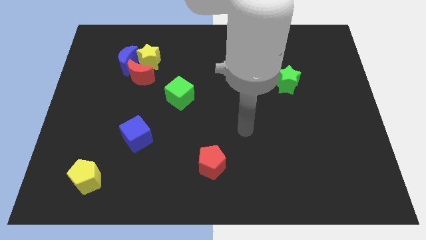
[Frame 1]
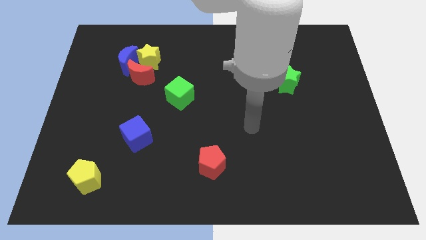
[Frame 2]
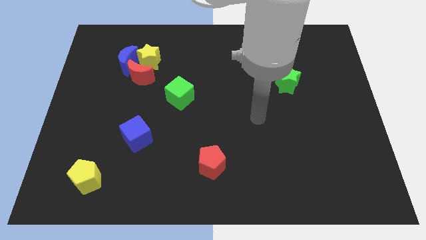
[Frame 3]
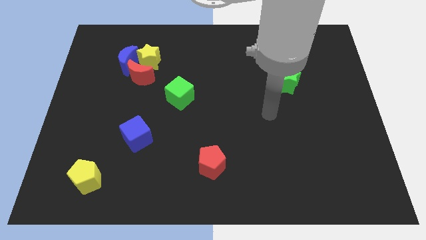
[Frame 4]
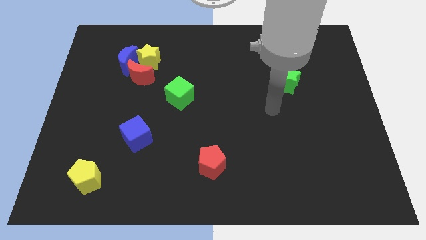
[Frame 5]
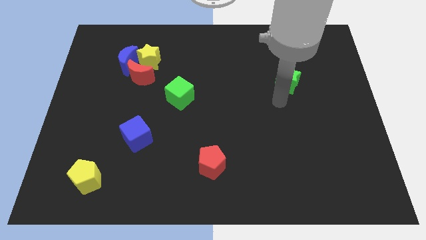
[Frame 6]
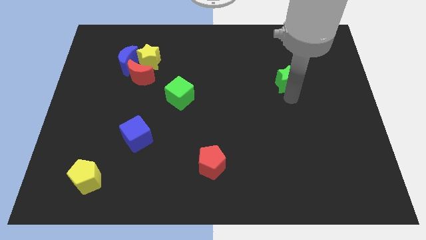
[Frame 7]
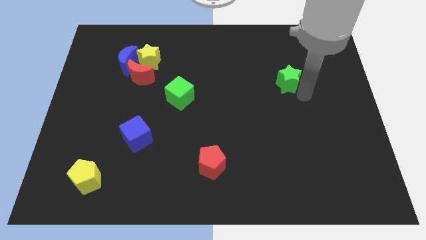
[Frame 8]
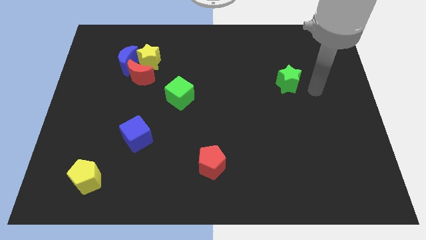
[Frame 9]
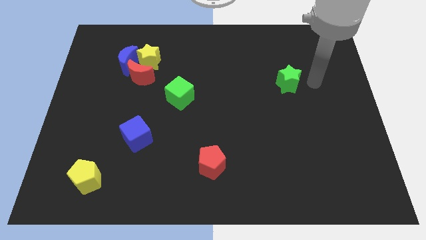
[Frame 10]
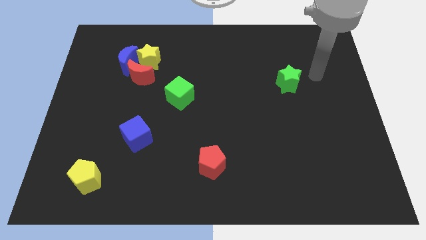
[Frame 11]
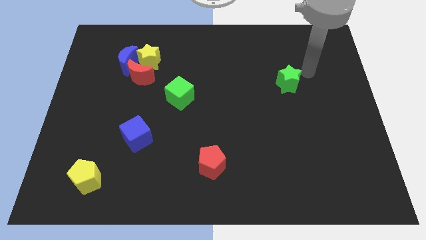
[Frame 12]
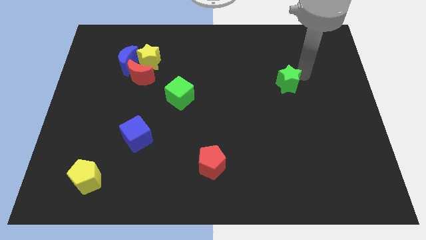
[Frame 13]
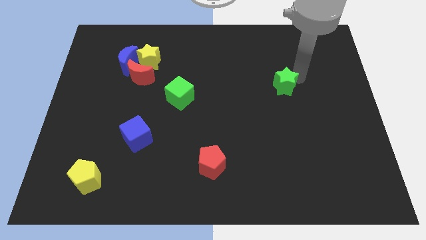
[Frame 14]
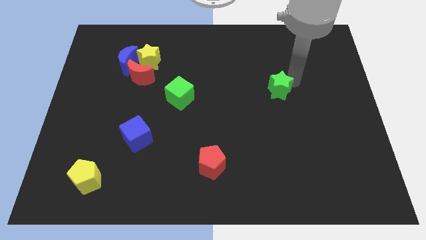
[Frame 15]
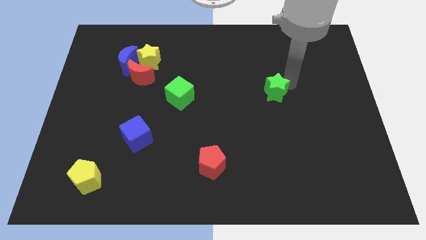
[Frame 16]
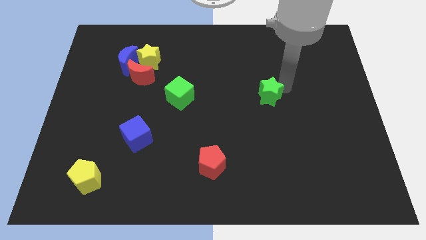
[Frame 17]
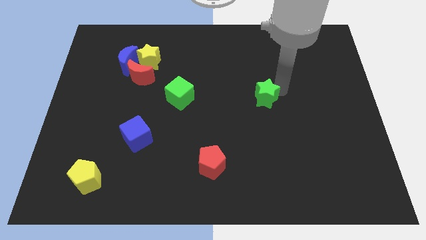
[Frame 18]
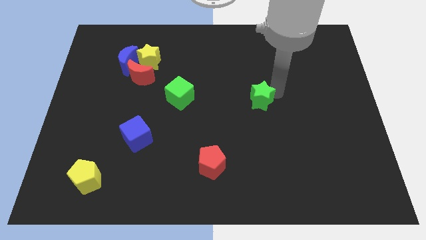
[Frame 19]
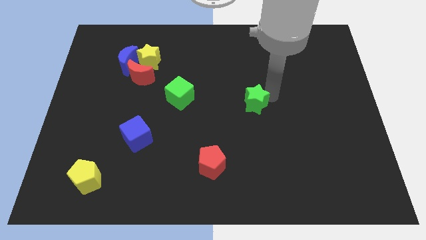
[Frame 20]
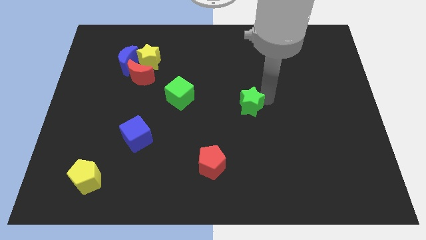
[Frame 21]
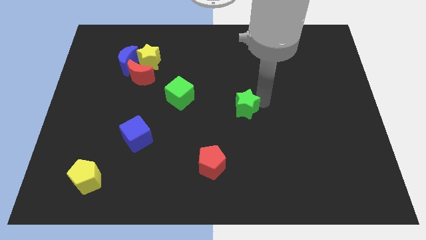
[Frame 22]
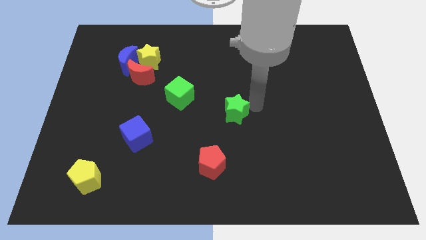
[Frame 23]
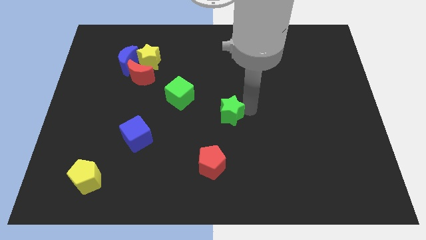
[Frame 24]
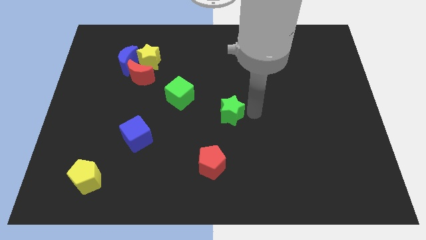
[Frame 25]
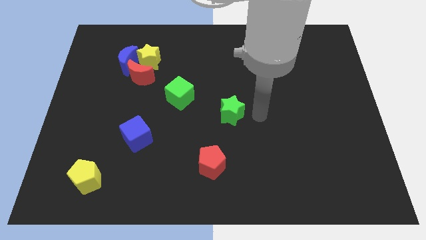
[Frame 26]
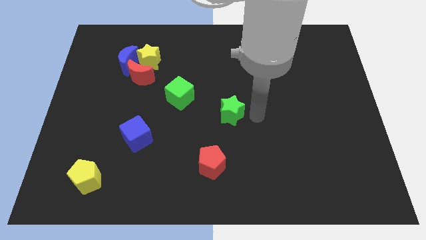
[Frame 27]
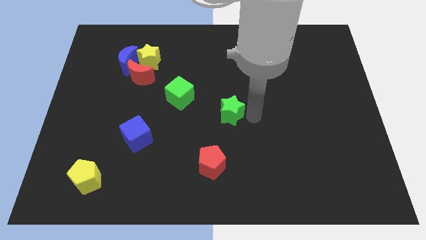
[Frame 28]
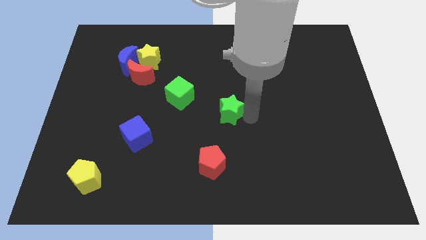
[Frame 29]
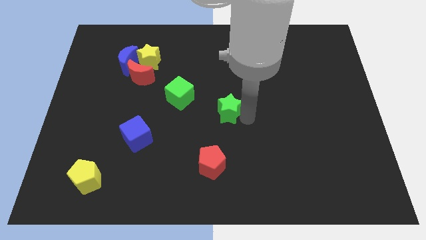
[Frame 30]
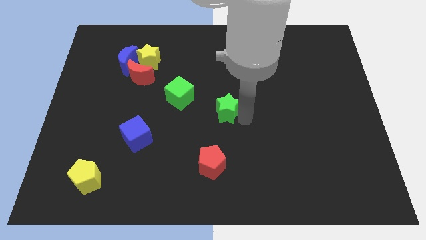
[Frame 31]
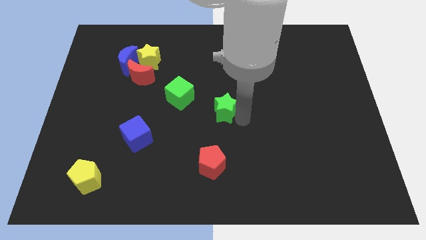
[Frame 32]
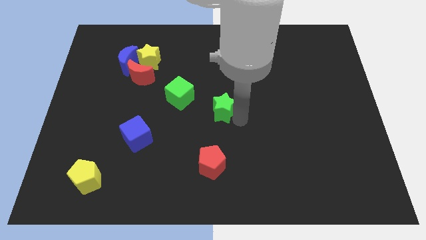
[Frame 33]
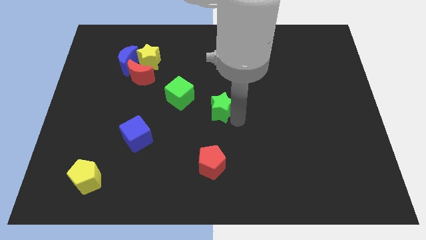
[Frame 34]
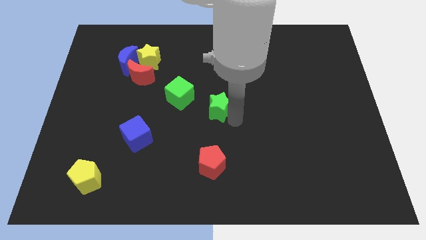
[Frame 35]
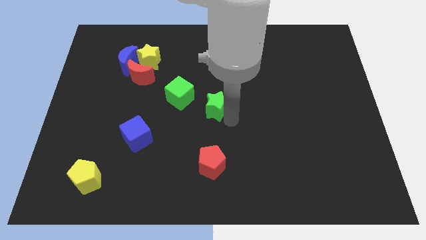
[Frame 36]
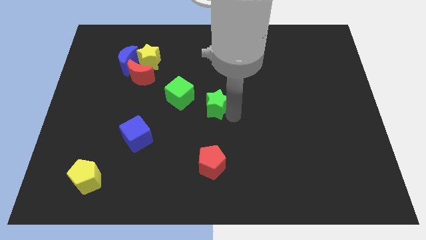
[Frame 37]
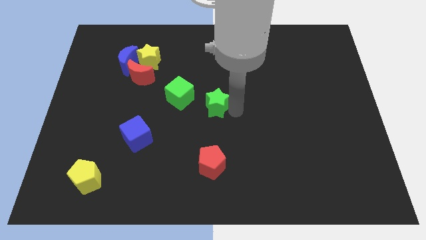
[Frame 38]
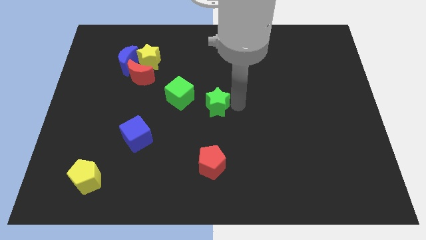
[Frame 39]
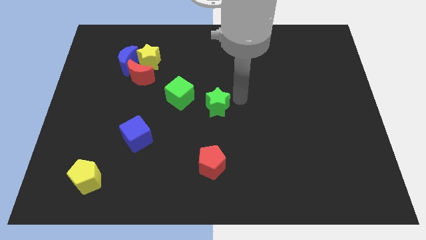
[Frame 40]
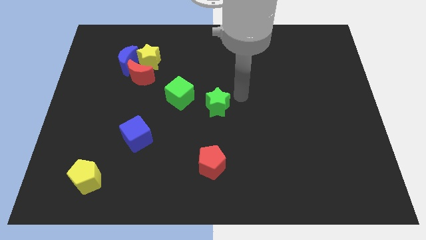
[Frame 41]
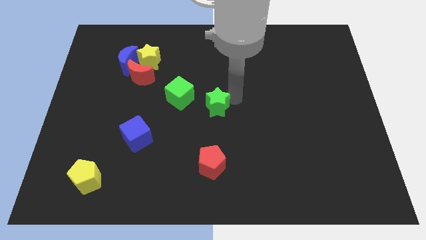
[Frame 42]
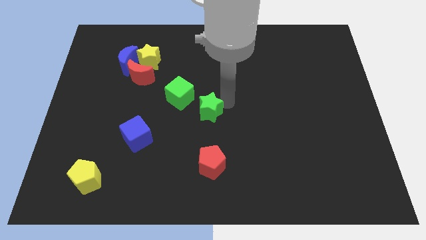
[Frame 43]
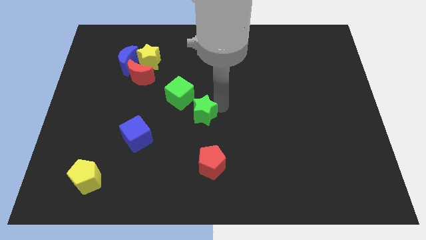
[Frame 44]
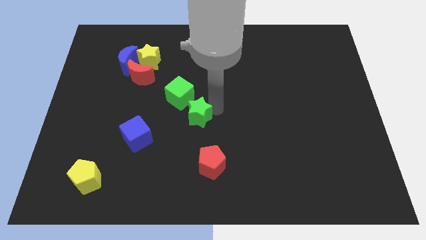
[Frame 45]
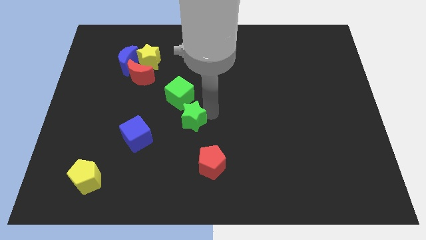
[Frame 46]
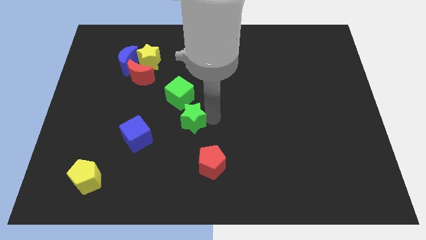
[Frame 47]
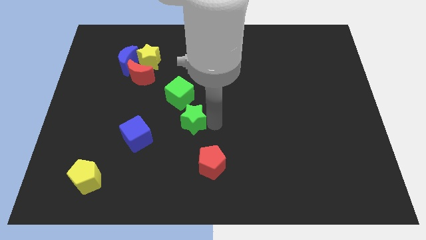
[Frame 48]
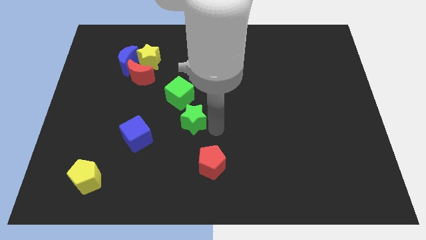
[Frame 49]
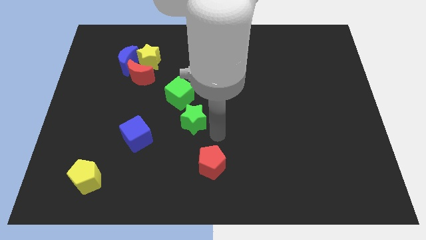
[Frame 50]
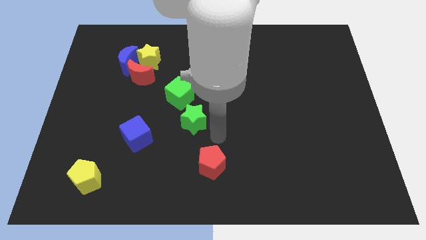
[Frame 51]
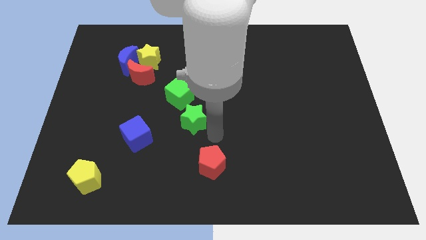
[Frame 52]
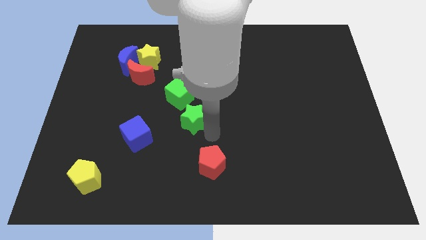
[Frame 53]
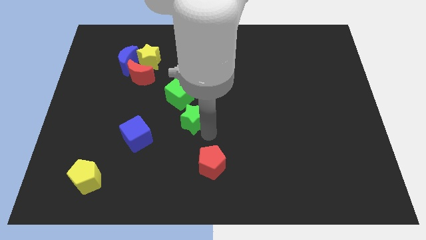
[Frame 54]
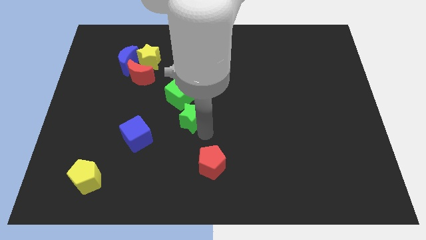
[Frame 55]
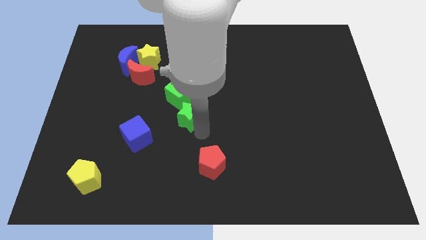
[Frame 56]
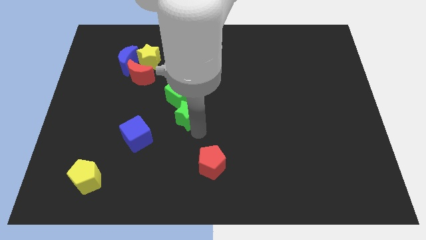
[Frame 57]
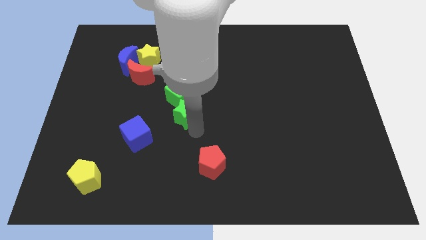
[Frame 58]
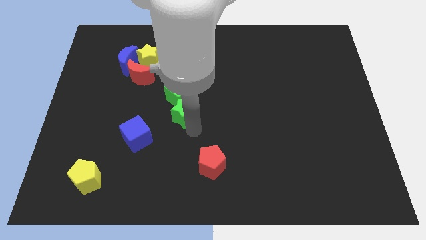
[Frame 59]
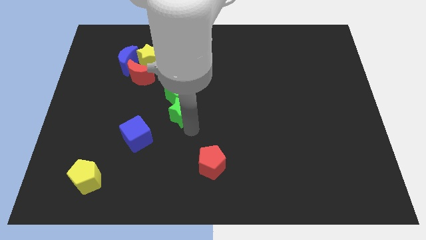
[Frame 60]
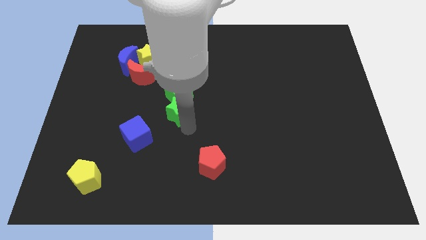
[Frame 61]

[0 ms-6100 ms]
push the green star diagonally down and to the left of the green cube

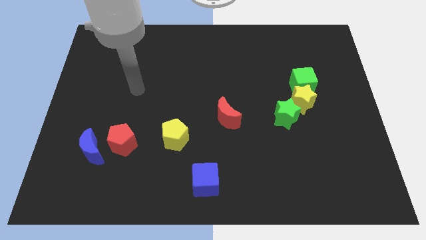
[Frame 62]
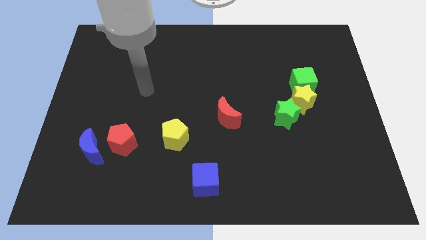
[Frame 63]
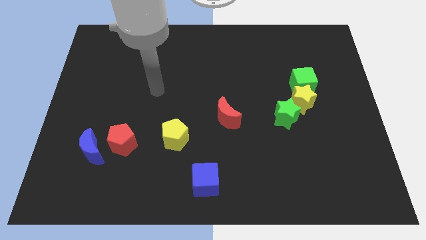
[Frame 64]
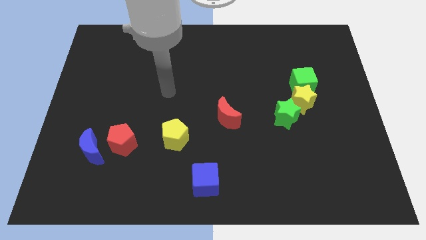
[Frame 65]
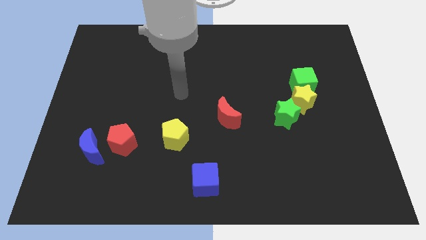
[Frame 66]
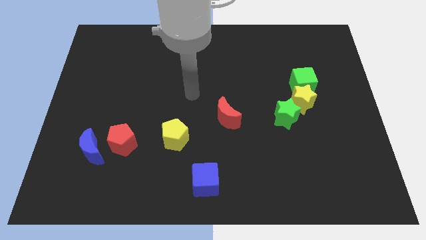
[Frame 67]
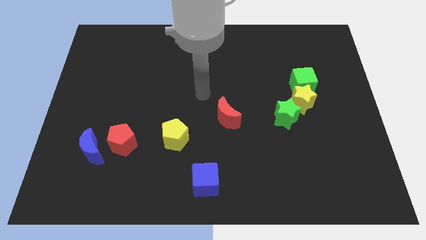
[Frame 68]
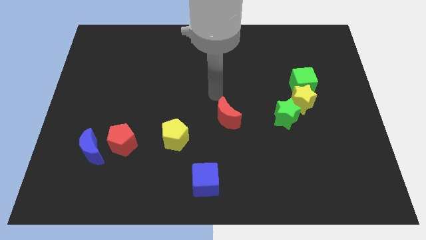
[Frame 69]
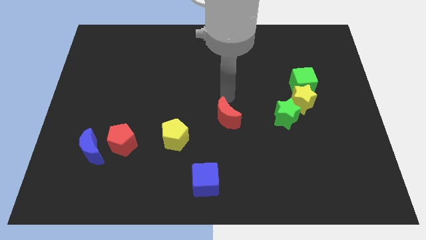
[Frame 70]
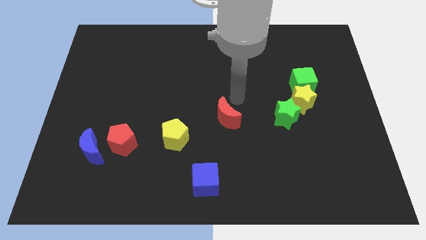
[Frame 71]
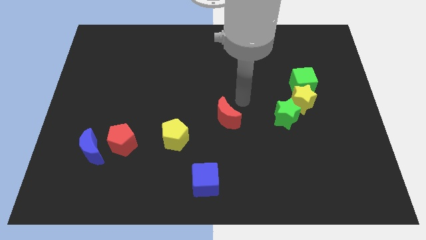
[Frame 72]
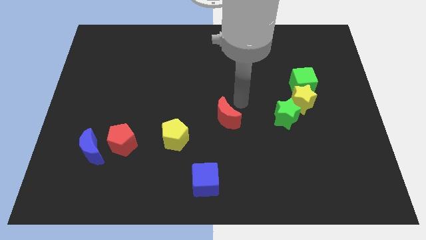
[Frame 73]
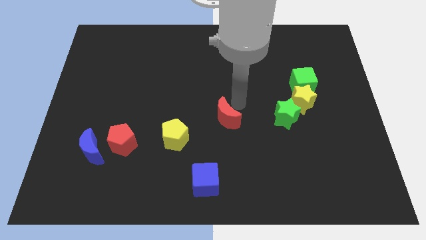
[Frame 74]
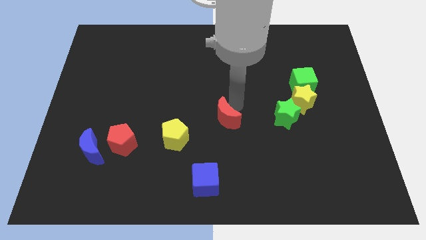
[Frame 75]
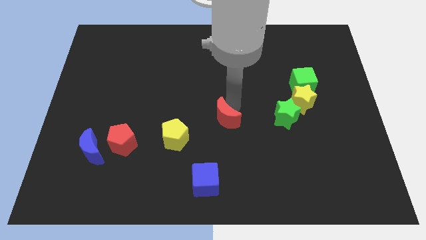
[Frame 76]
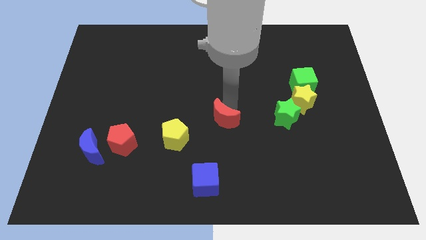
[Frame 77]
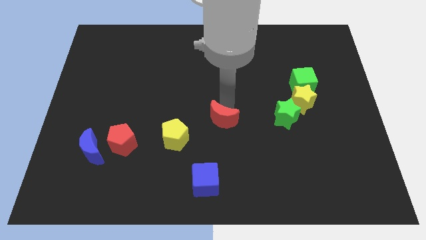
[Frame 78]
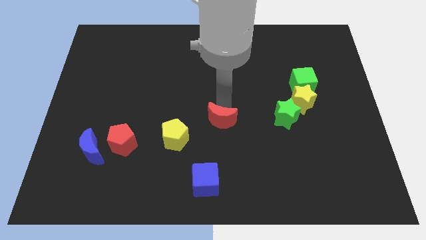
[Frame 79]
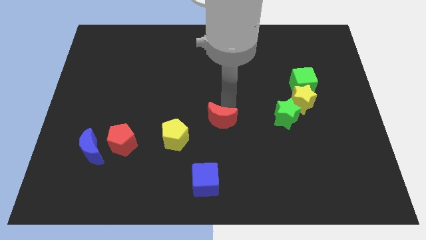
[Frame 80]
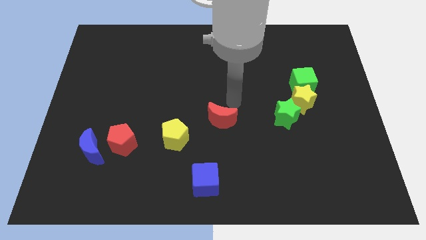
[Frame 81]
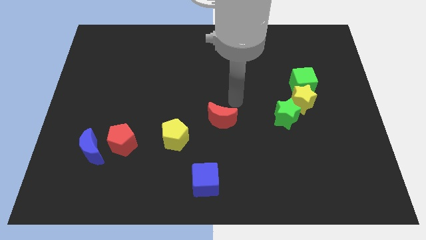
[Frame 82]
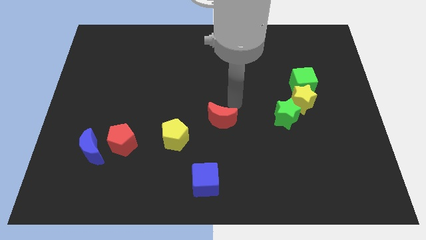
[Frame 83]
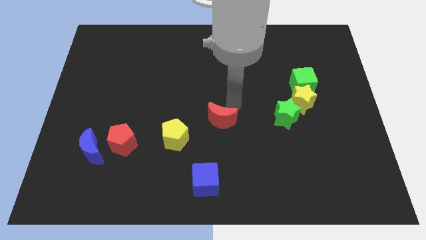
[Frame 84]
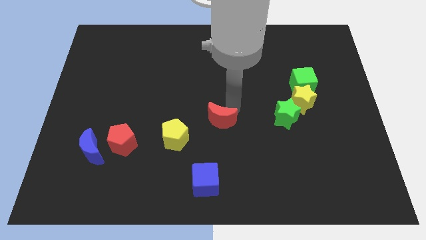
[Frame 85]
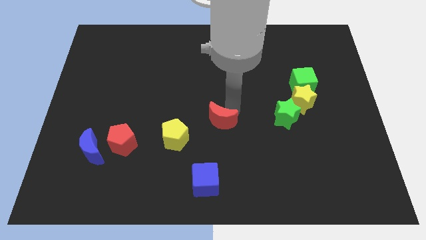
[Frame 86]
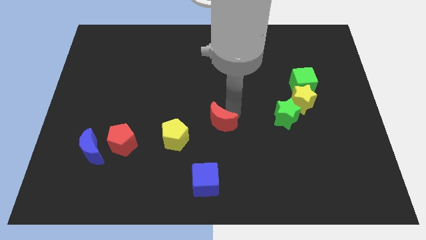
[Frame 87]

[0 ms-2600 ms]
push the red moon above the blue cube
